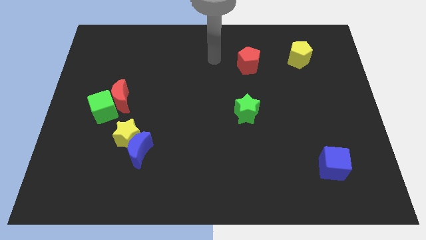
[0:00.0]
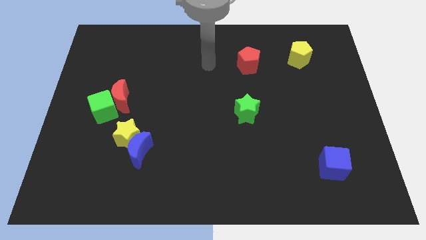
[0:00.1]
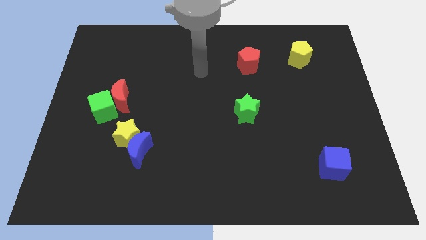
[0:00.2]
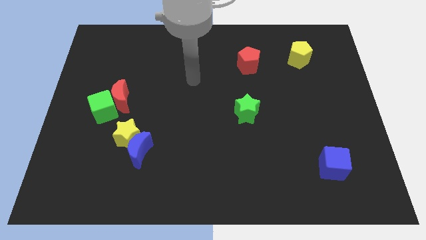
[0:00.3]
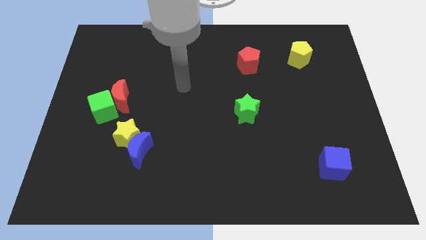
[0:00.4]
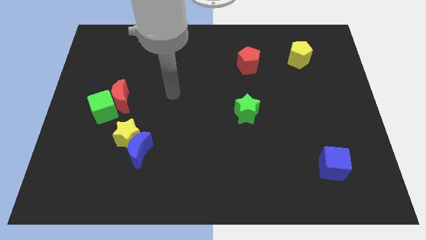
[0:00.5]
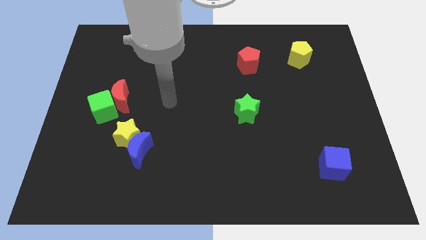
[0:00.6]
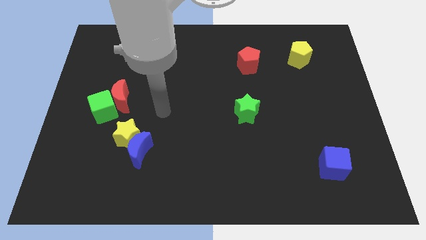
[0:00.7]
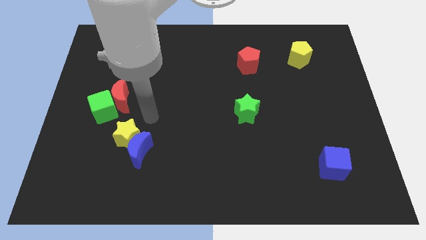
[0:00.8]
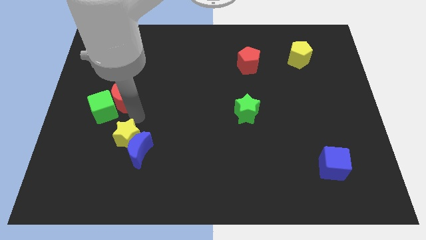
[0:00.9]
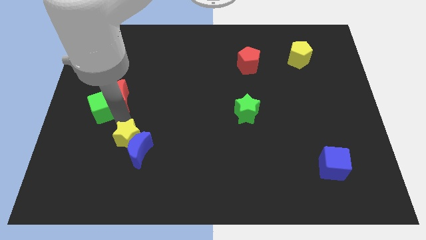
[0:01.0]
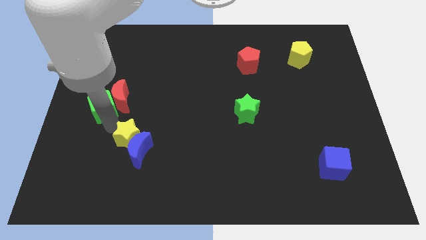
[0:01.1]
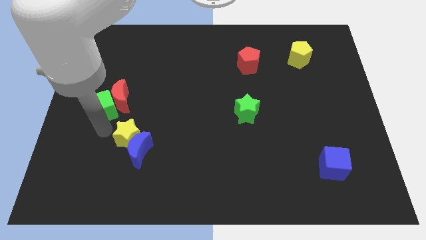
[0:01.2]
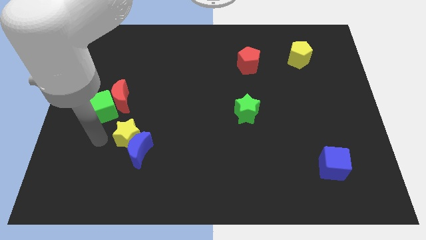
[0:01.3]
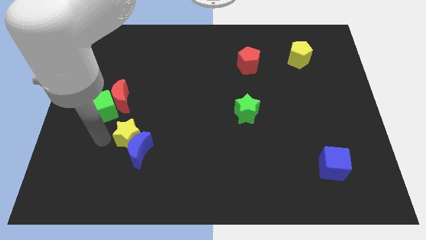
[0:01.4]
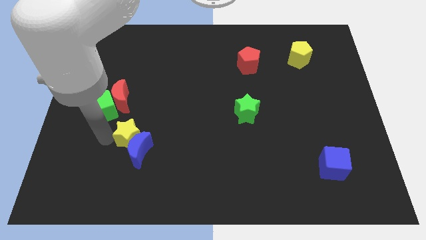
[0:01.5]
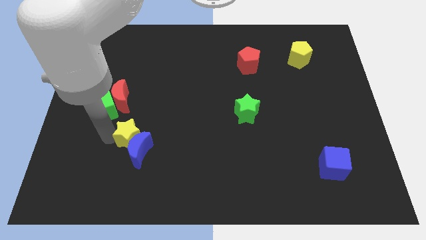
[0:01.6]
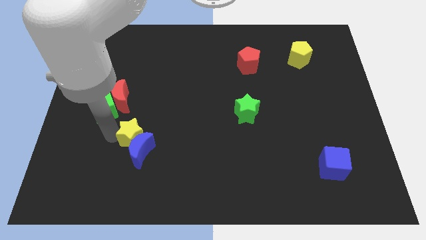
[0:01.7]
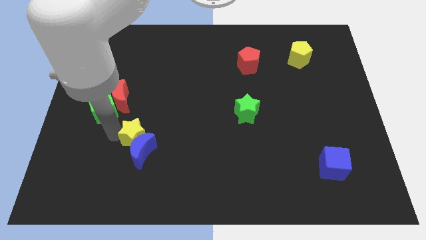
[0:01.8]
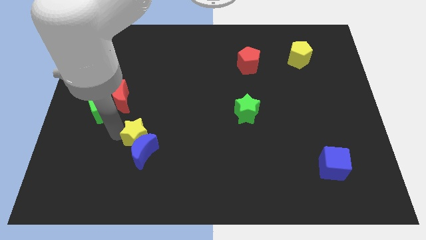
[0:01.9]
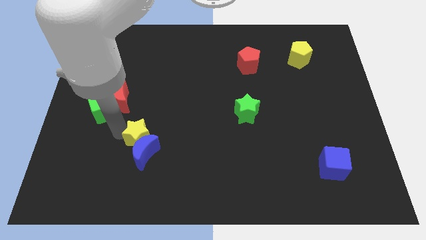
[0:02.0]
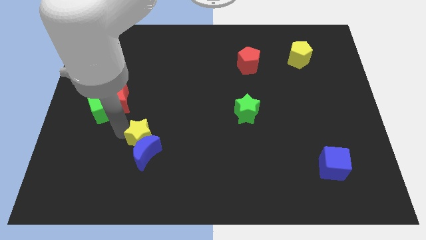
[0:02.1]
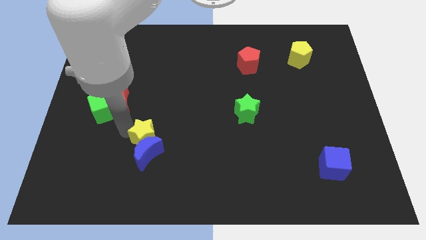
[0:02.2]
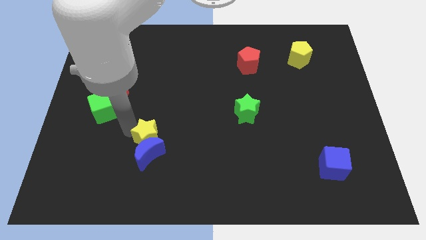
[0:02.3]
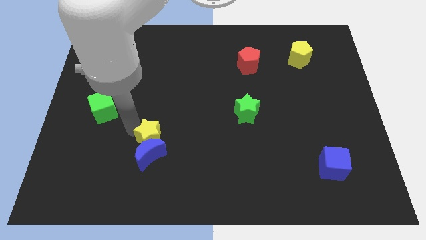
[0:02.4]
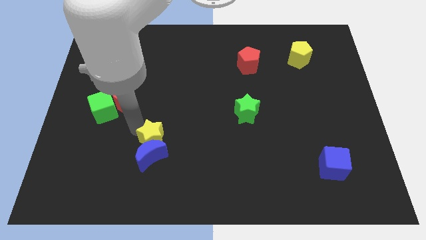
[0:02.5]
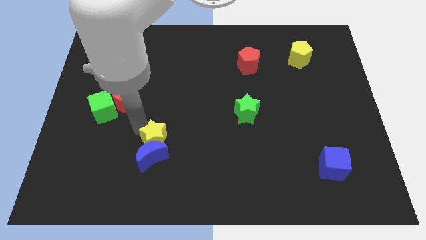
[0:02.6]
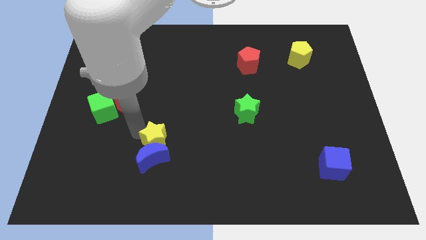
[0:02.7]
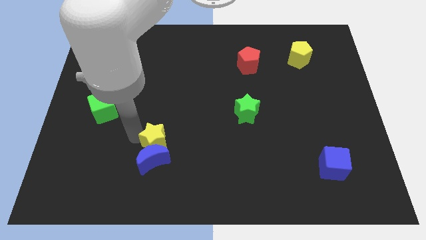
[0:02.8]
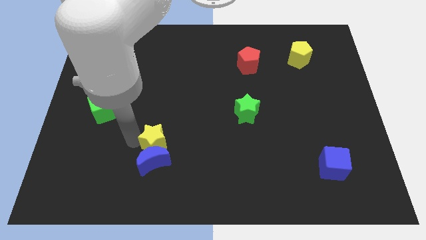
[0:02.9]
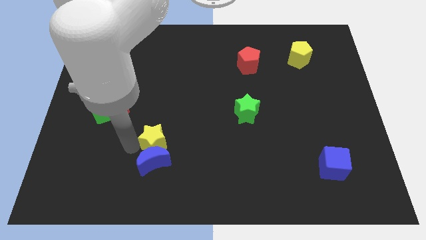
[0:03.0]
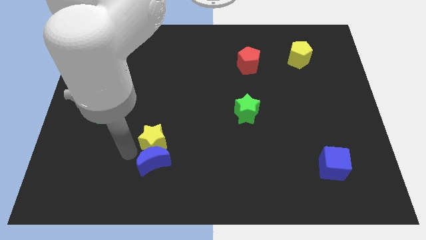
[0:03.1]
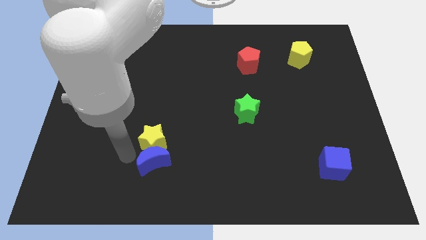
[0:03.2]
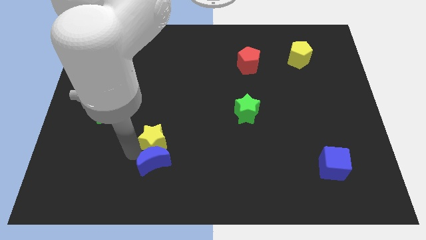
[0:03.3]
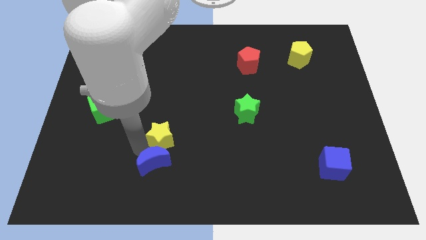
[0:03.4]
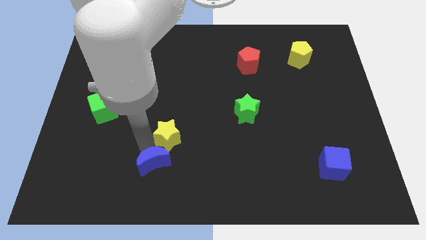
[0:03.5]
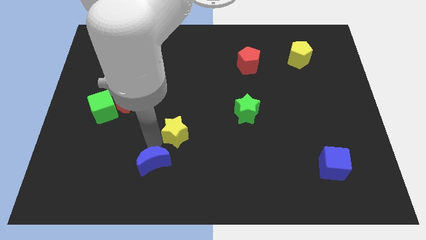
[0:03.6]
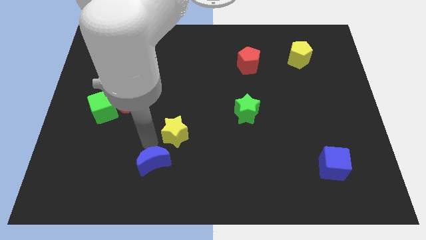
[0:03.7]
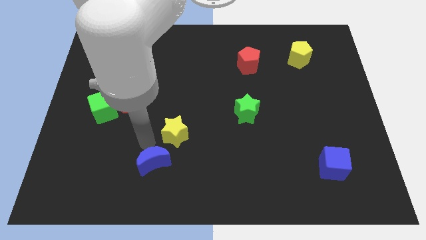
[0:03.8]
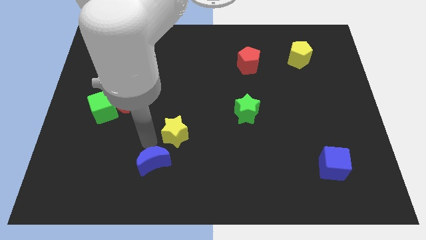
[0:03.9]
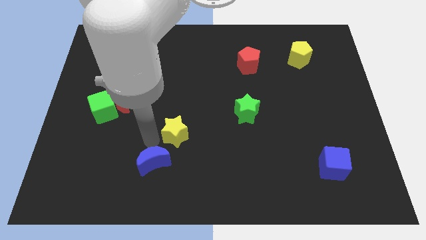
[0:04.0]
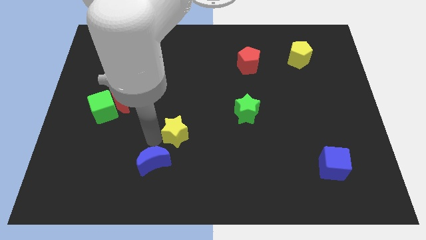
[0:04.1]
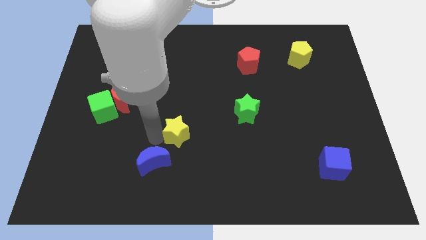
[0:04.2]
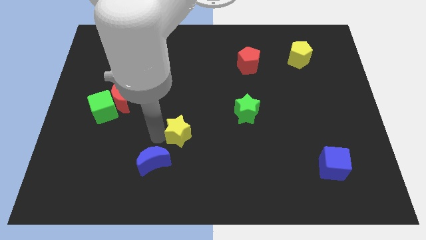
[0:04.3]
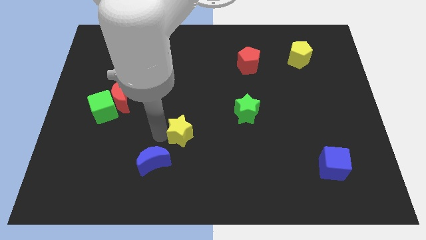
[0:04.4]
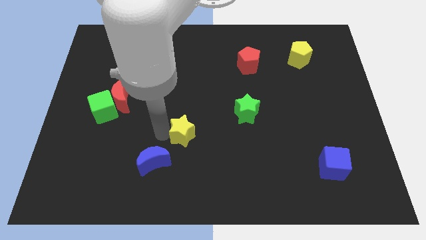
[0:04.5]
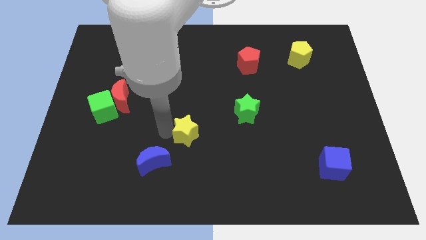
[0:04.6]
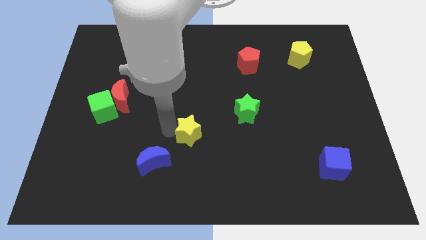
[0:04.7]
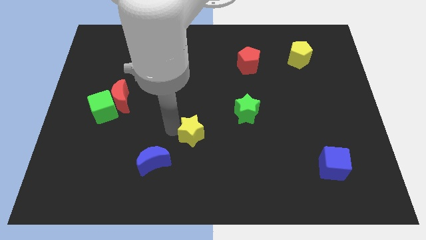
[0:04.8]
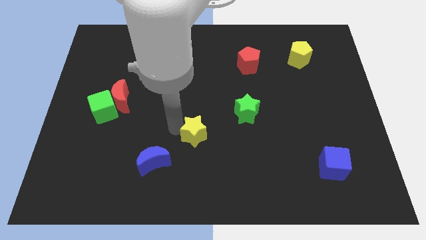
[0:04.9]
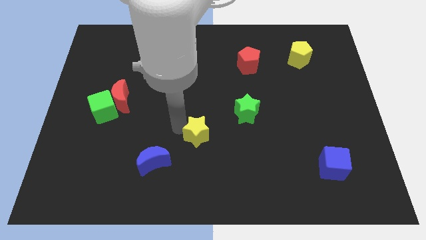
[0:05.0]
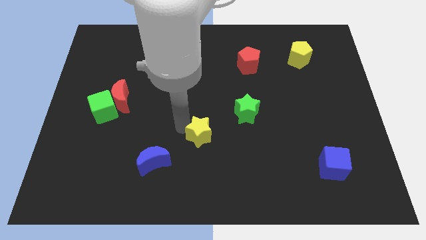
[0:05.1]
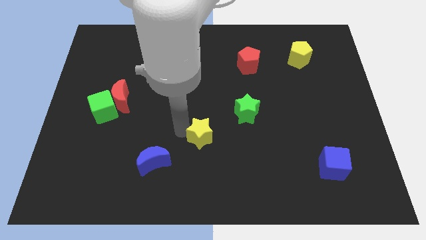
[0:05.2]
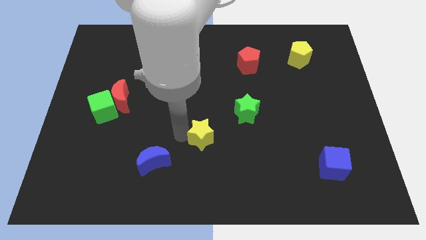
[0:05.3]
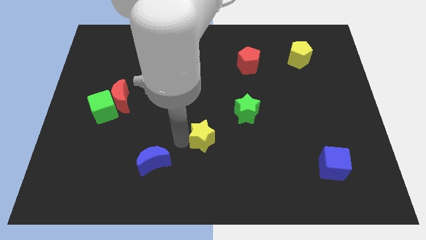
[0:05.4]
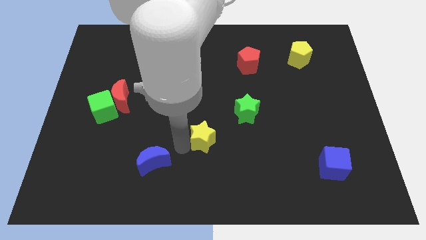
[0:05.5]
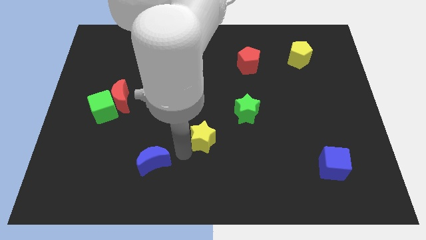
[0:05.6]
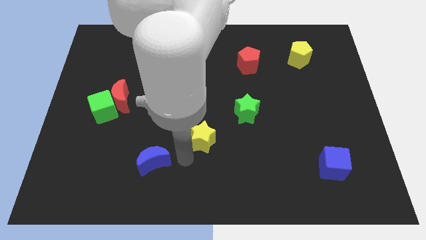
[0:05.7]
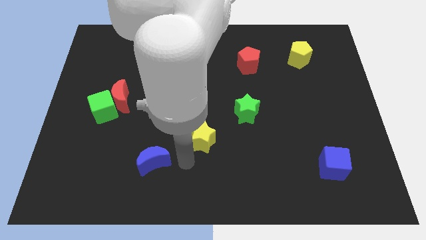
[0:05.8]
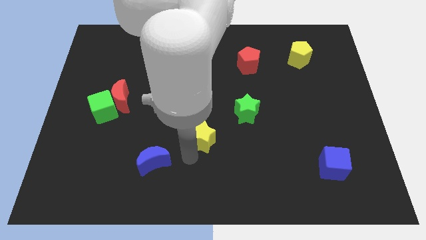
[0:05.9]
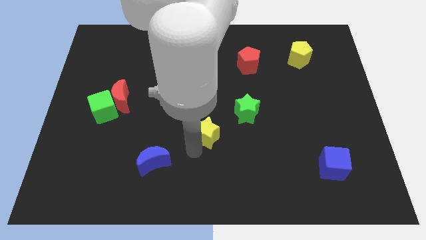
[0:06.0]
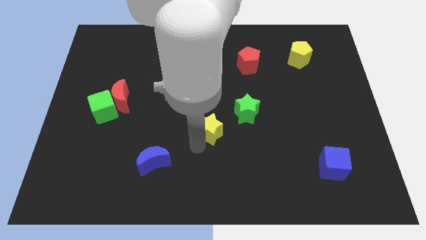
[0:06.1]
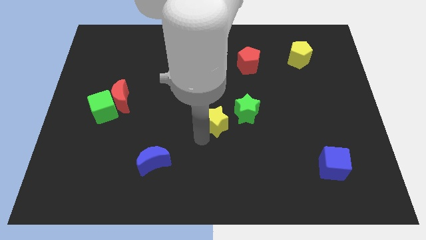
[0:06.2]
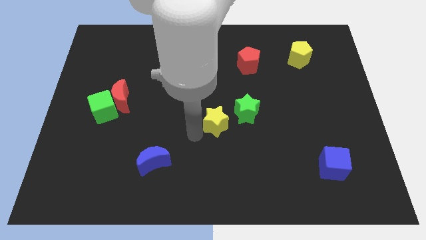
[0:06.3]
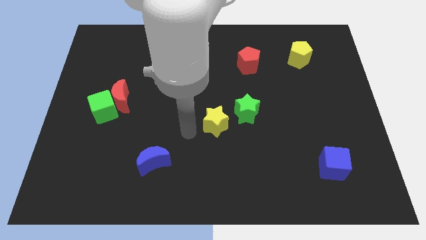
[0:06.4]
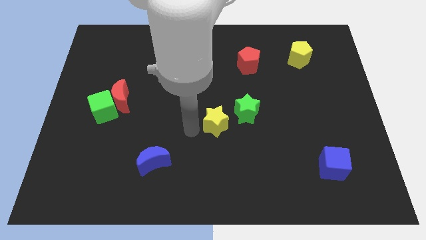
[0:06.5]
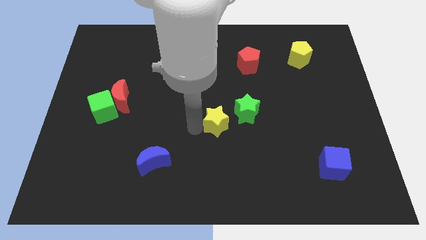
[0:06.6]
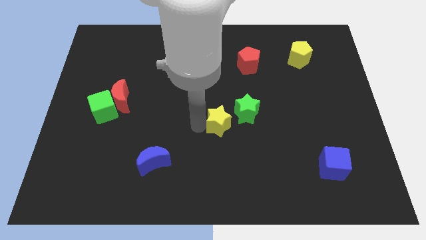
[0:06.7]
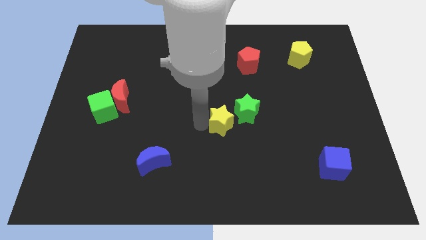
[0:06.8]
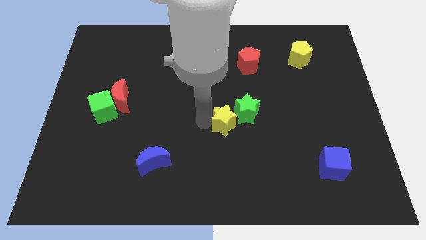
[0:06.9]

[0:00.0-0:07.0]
push the yellow star towards the green star
